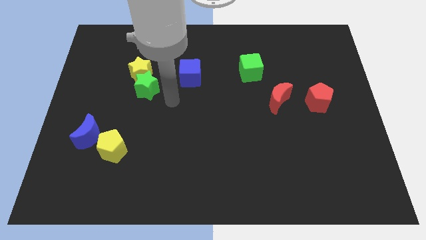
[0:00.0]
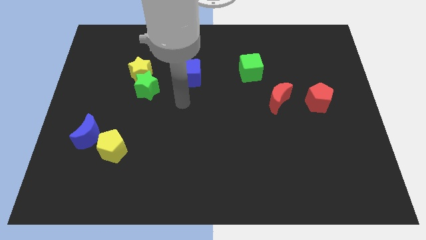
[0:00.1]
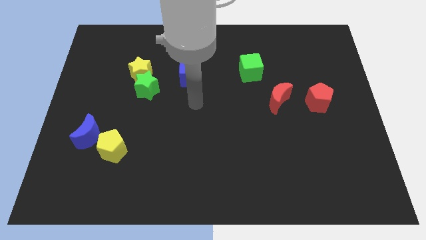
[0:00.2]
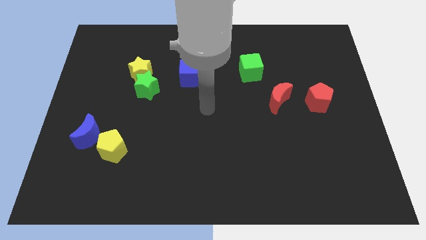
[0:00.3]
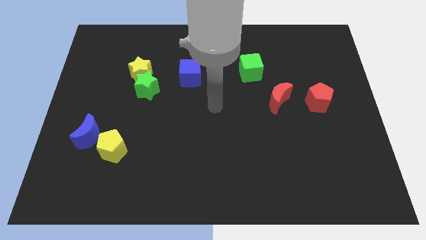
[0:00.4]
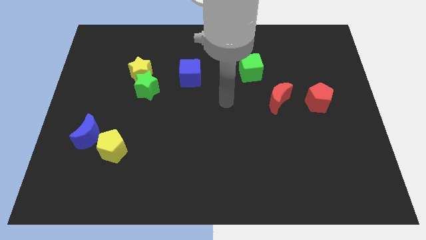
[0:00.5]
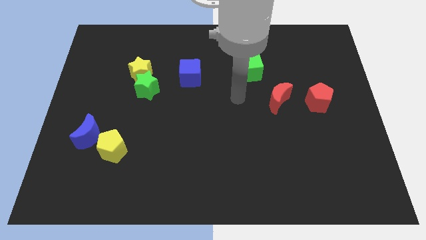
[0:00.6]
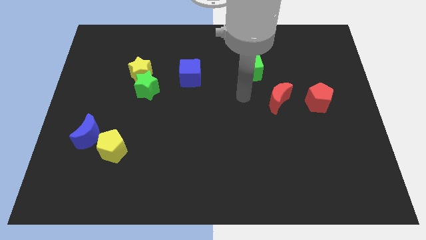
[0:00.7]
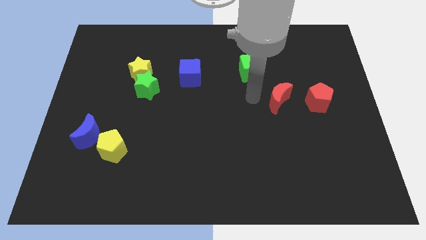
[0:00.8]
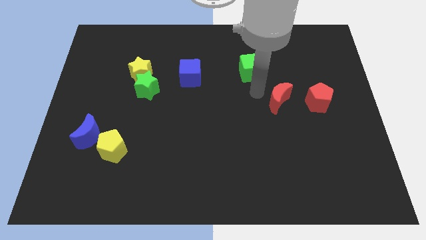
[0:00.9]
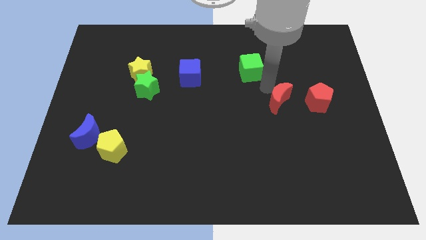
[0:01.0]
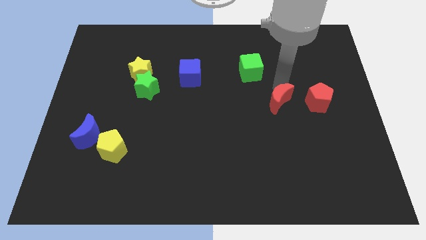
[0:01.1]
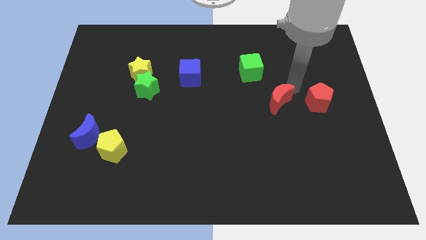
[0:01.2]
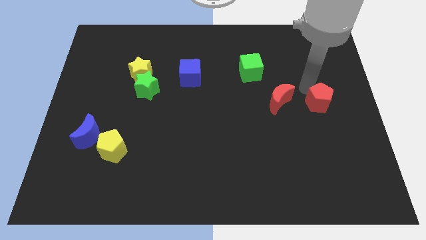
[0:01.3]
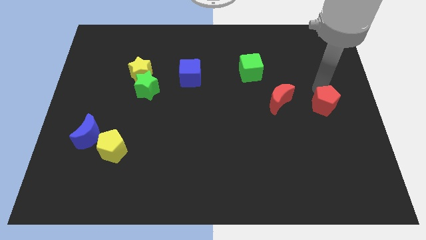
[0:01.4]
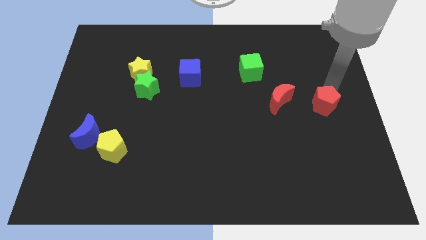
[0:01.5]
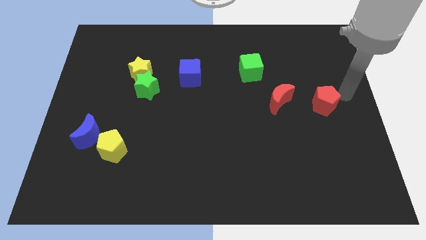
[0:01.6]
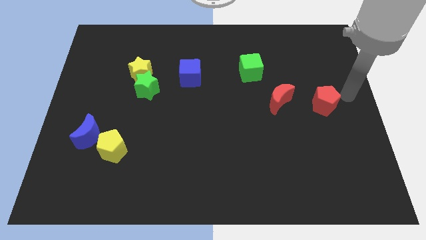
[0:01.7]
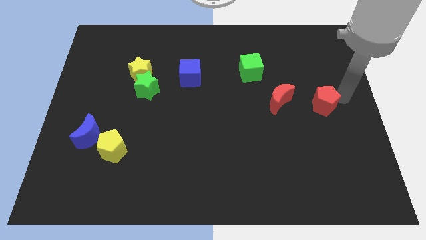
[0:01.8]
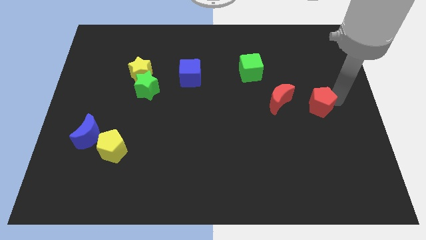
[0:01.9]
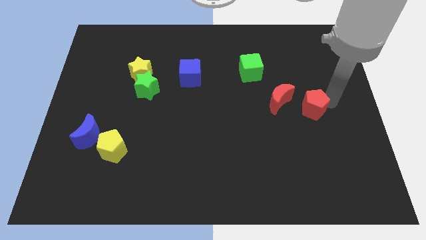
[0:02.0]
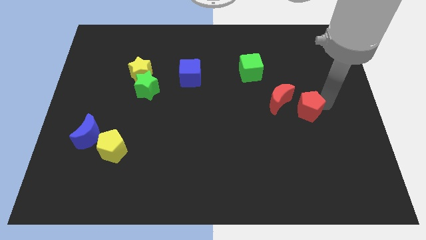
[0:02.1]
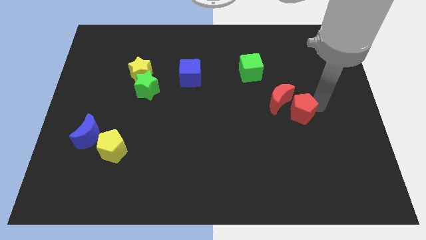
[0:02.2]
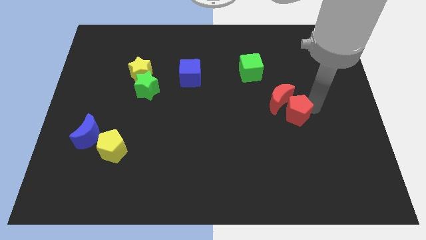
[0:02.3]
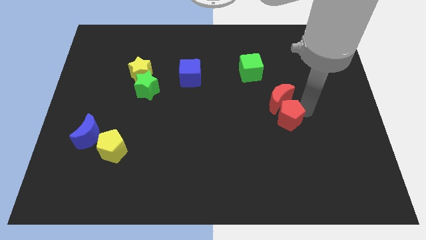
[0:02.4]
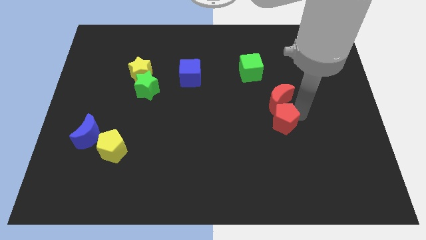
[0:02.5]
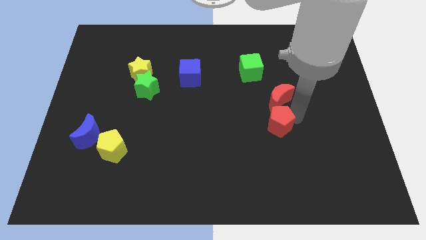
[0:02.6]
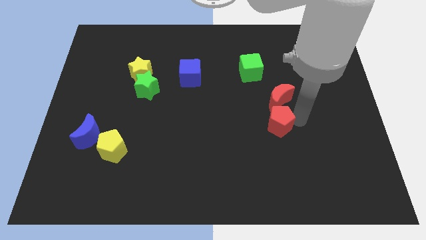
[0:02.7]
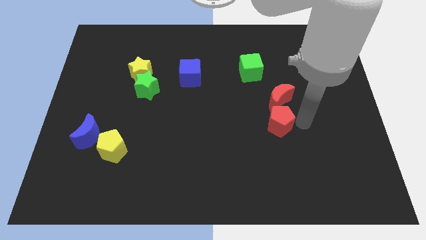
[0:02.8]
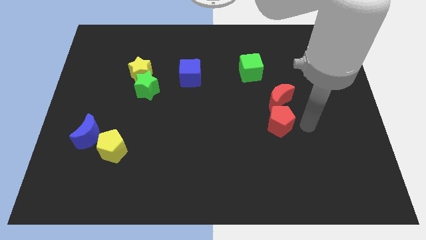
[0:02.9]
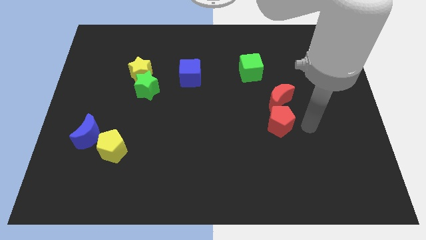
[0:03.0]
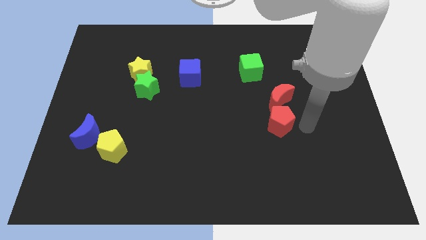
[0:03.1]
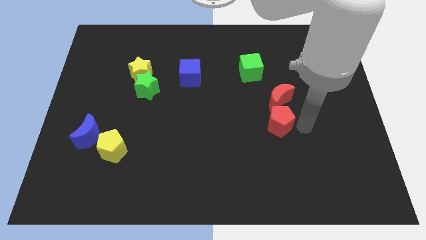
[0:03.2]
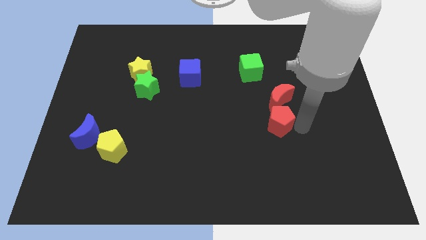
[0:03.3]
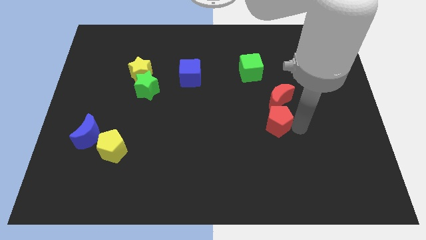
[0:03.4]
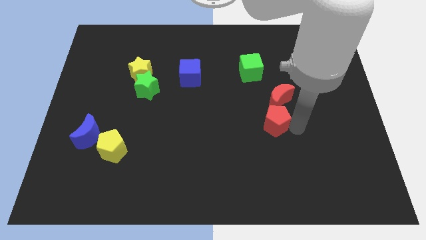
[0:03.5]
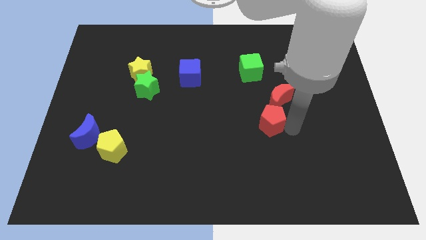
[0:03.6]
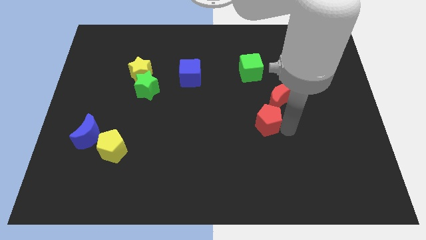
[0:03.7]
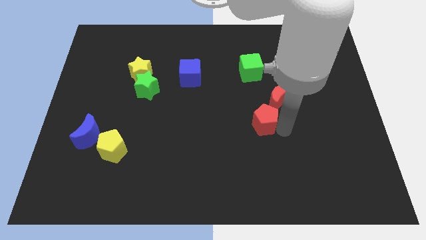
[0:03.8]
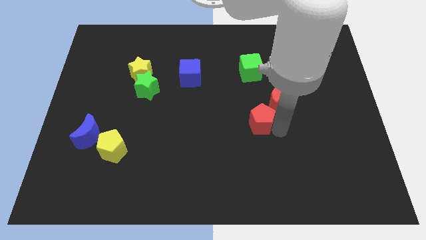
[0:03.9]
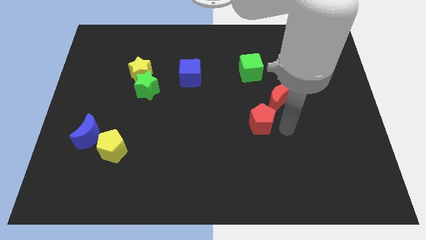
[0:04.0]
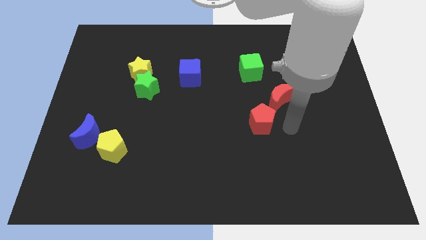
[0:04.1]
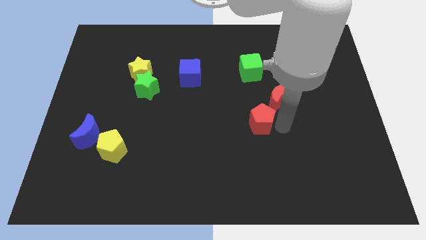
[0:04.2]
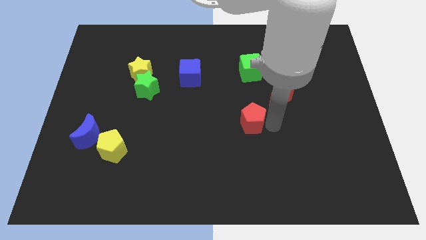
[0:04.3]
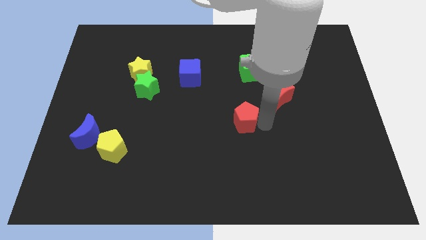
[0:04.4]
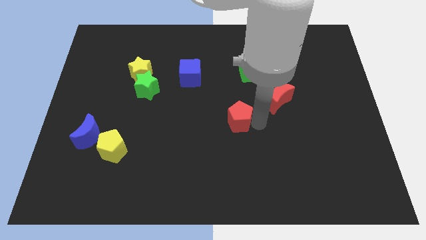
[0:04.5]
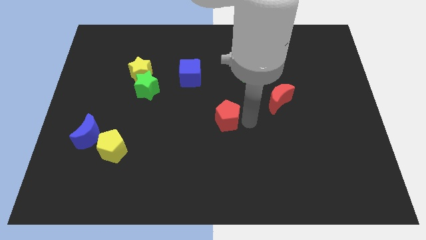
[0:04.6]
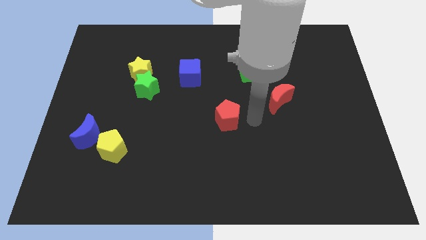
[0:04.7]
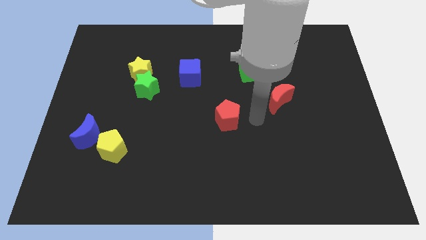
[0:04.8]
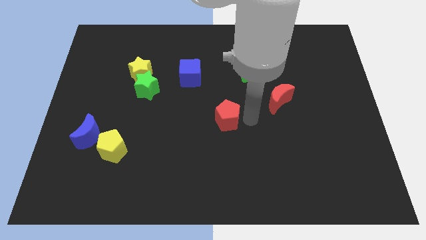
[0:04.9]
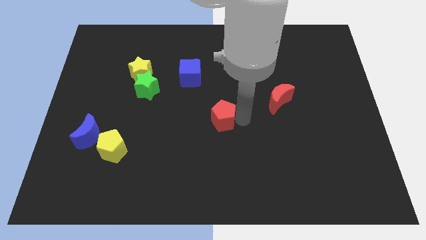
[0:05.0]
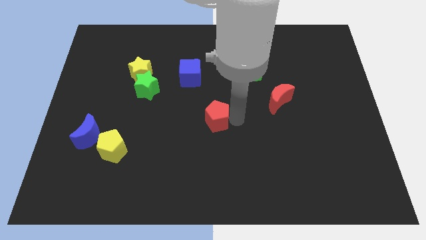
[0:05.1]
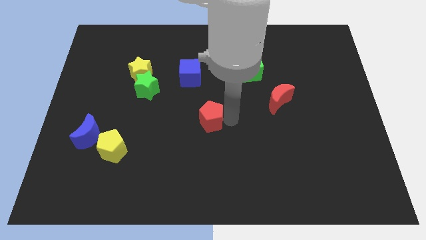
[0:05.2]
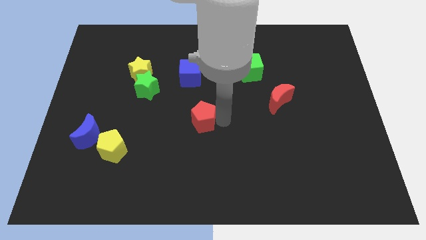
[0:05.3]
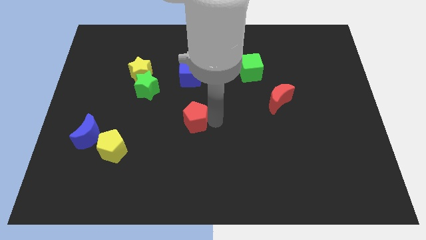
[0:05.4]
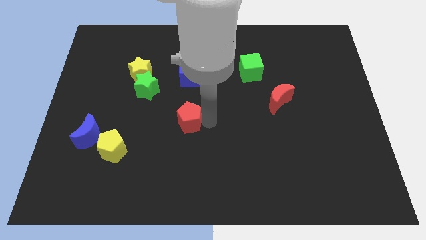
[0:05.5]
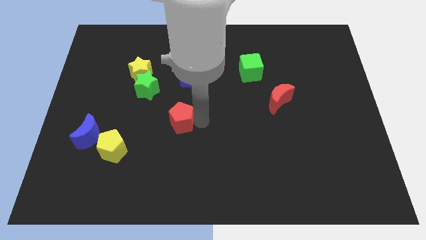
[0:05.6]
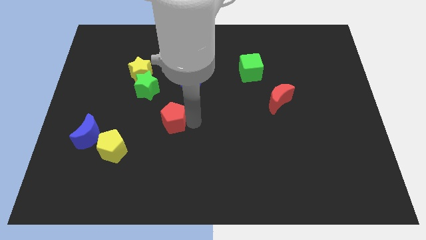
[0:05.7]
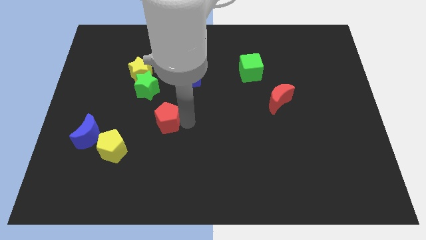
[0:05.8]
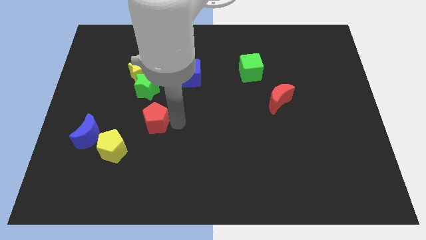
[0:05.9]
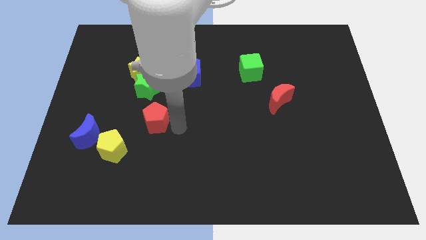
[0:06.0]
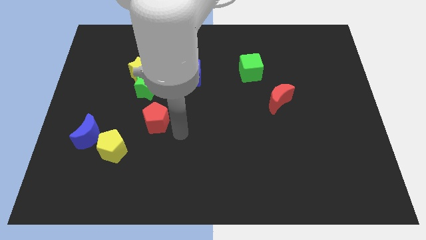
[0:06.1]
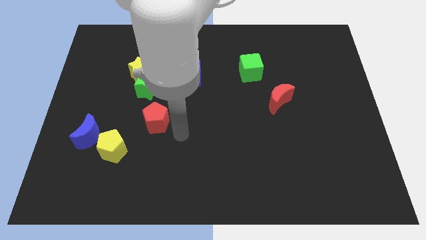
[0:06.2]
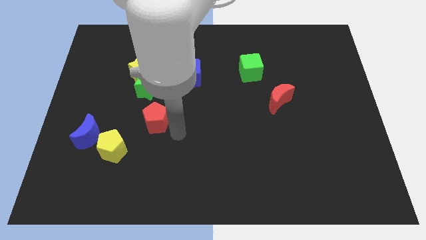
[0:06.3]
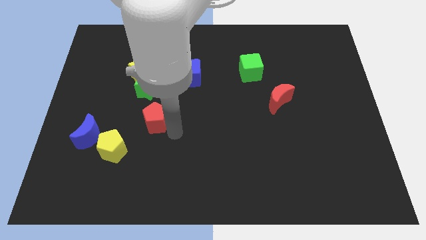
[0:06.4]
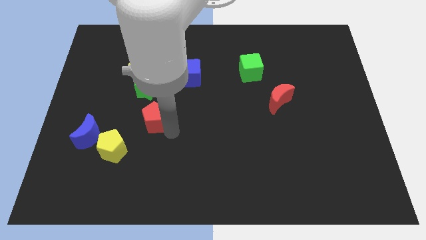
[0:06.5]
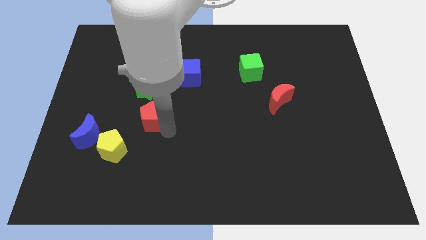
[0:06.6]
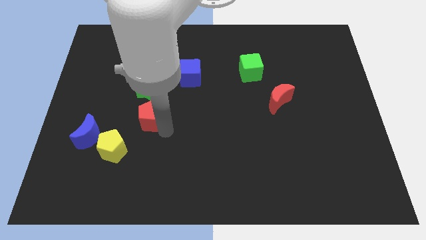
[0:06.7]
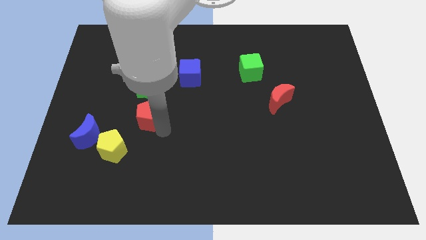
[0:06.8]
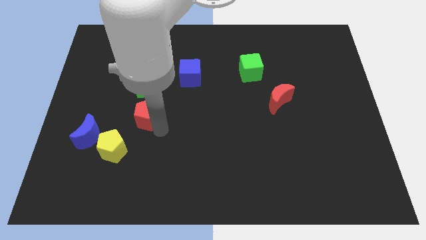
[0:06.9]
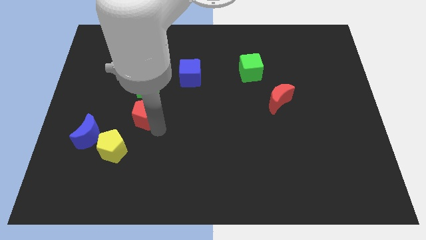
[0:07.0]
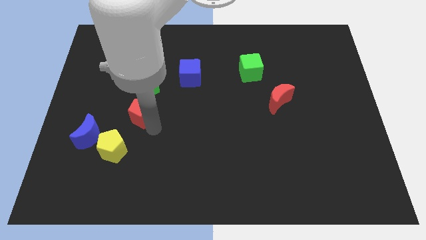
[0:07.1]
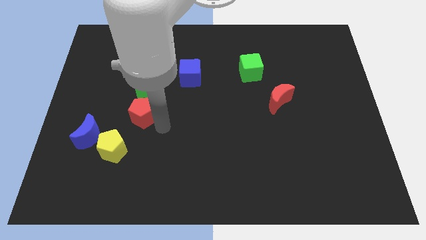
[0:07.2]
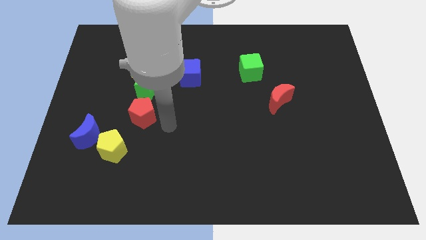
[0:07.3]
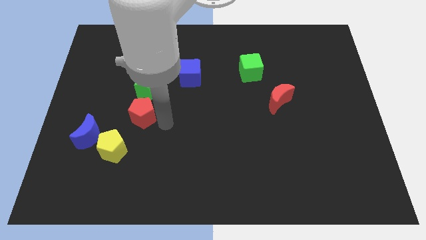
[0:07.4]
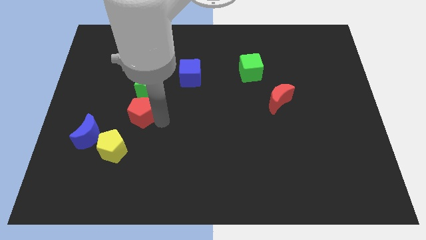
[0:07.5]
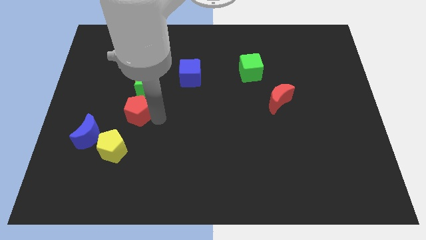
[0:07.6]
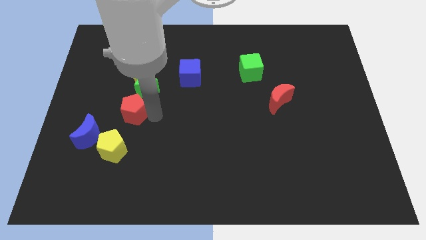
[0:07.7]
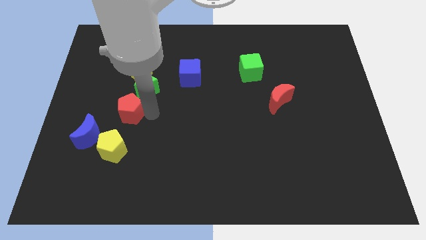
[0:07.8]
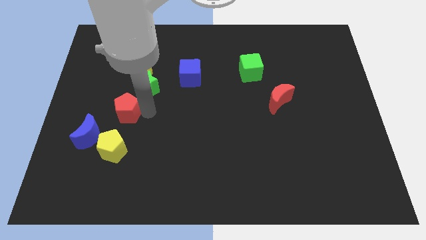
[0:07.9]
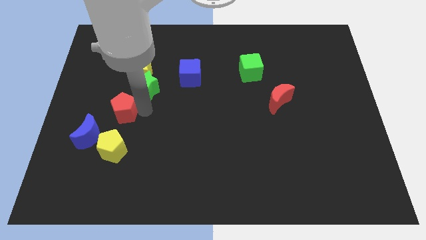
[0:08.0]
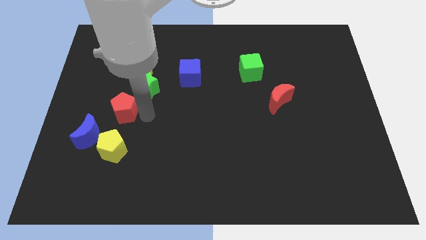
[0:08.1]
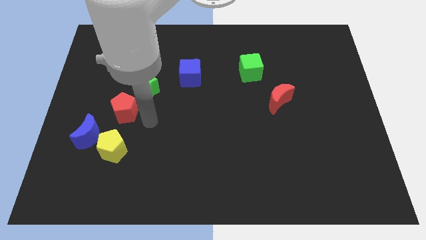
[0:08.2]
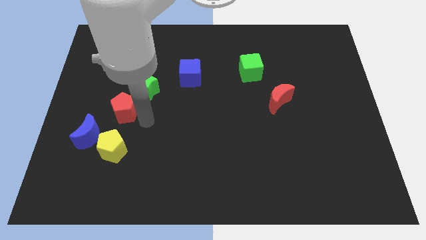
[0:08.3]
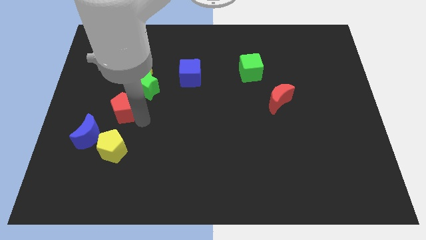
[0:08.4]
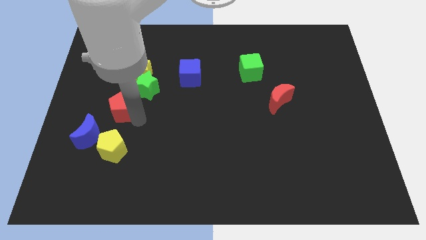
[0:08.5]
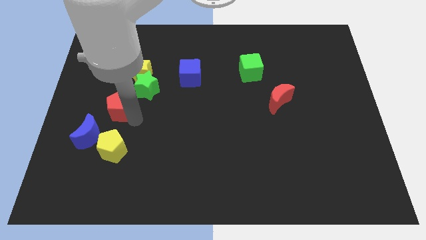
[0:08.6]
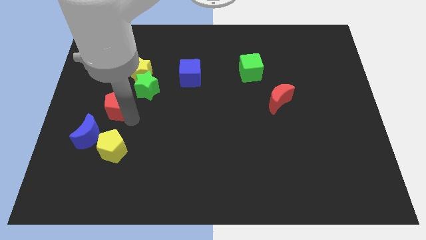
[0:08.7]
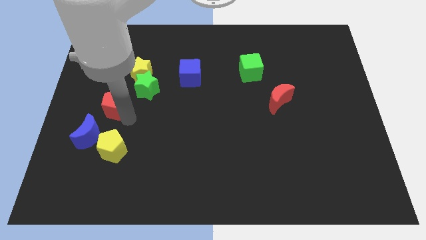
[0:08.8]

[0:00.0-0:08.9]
put the red pentagon above the blue moon
